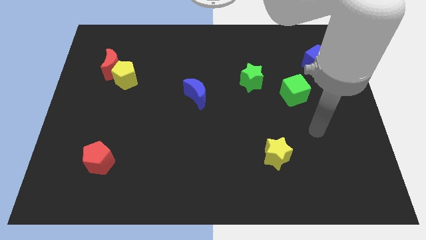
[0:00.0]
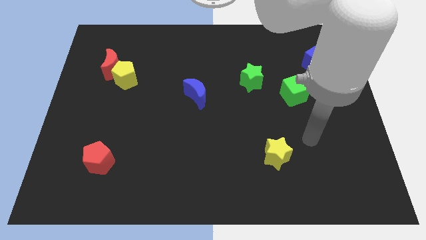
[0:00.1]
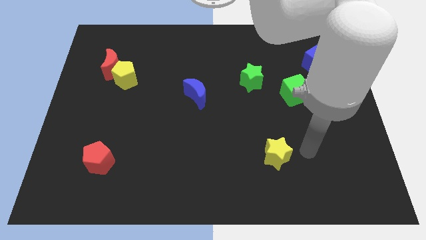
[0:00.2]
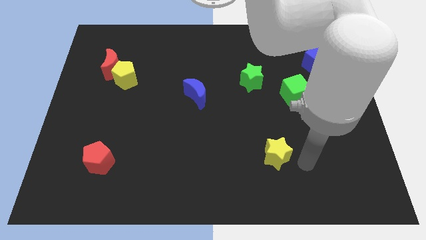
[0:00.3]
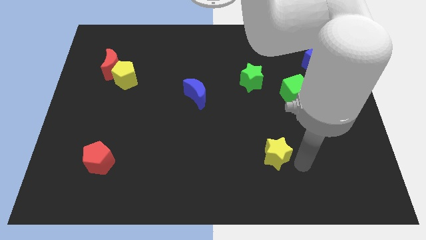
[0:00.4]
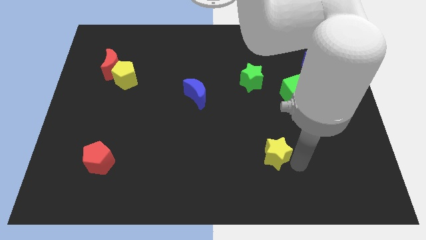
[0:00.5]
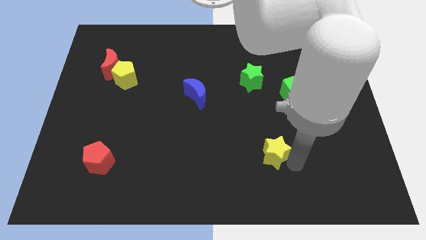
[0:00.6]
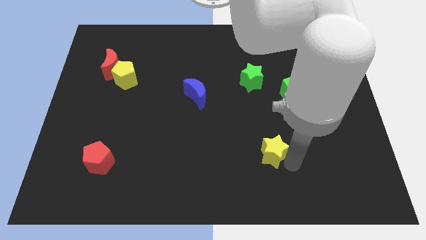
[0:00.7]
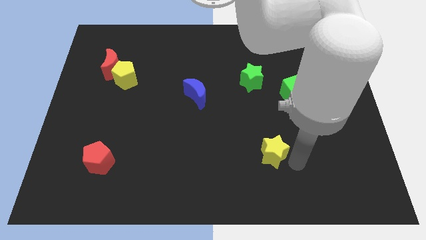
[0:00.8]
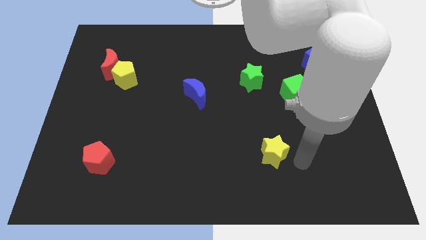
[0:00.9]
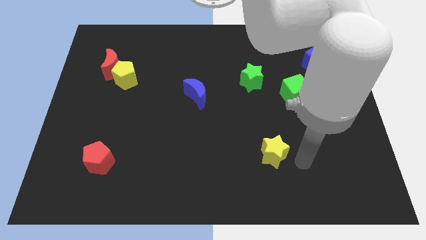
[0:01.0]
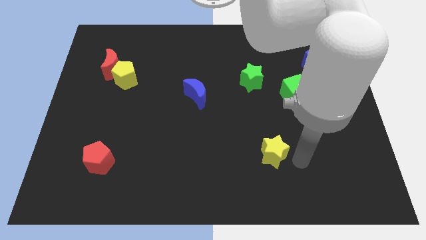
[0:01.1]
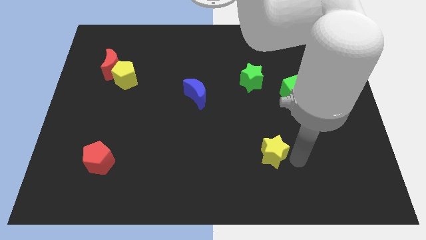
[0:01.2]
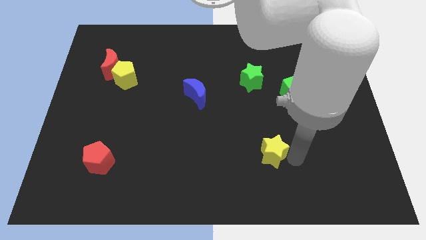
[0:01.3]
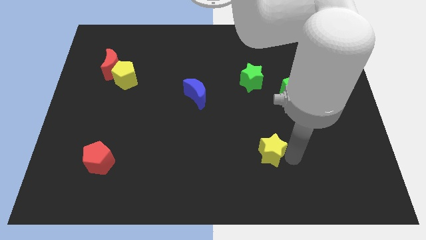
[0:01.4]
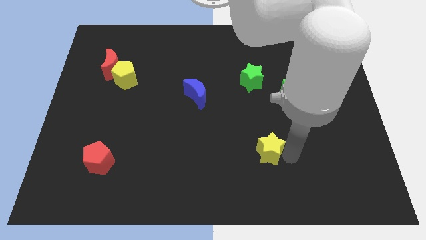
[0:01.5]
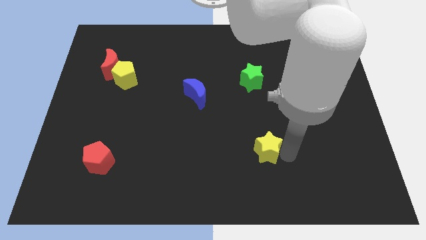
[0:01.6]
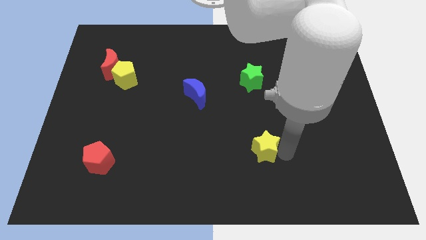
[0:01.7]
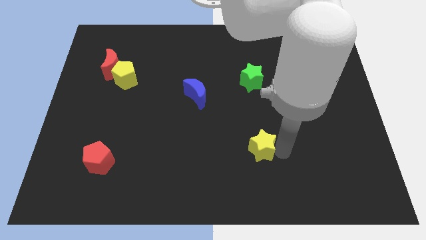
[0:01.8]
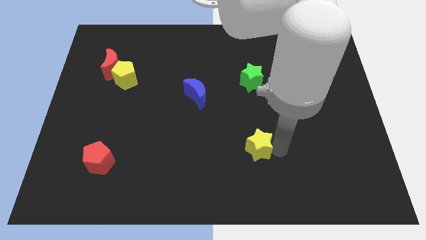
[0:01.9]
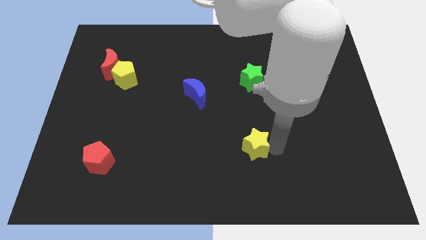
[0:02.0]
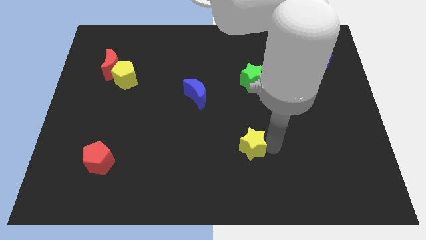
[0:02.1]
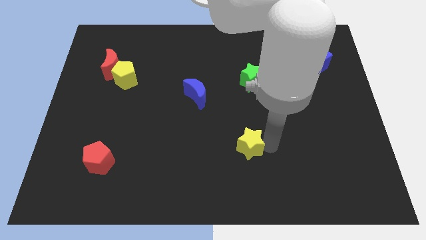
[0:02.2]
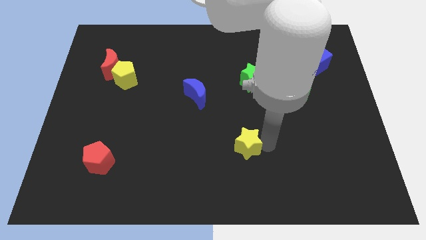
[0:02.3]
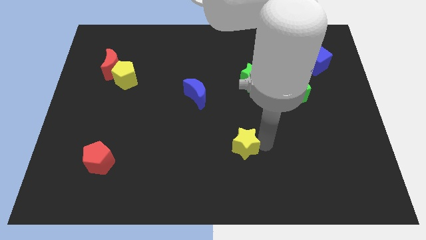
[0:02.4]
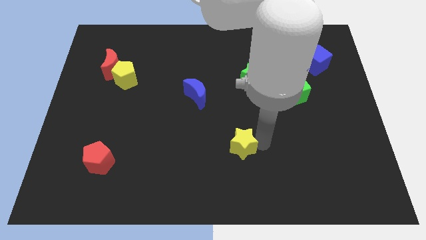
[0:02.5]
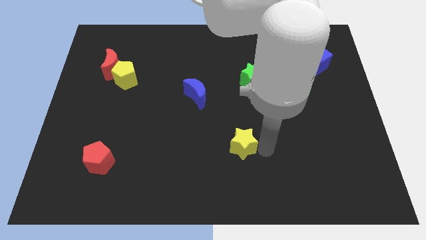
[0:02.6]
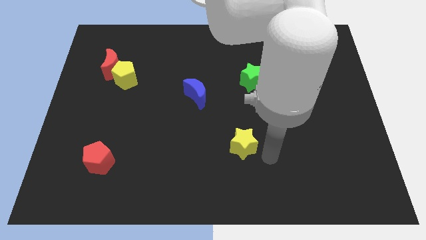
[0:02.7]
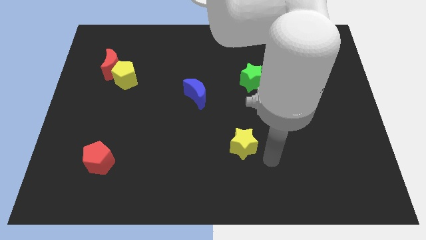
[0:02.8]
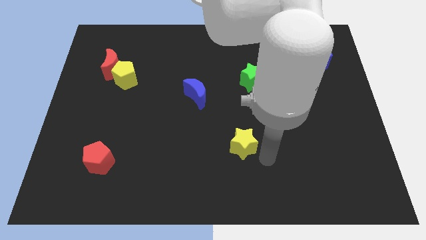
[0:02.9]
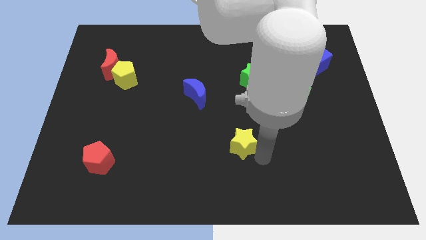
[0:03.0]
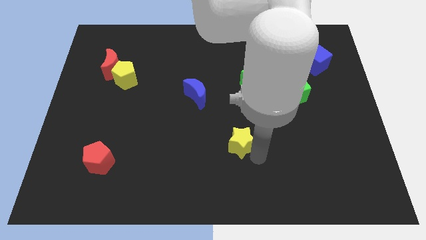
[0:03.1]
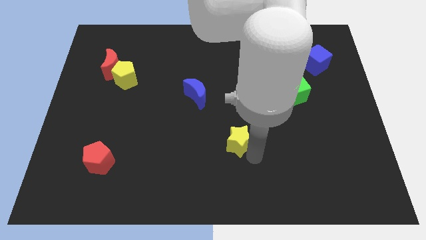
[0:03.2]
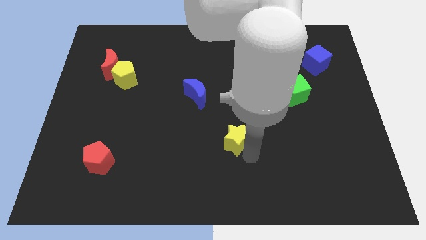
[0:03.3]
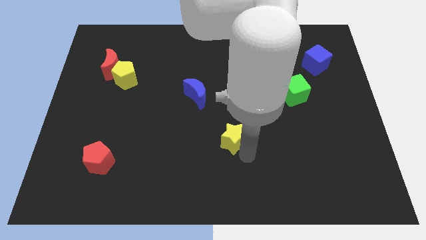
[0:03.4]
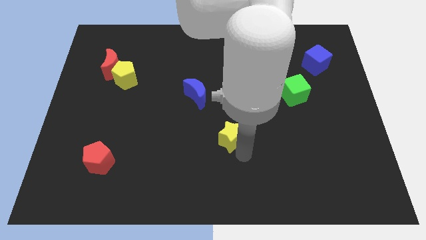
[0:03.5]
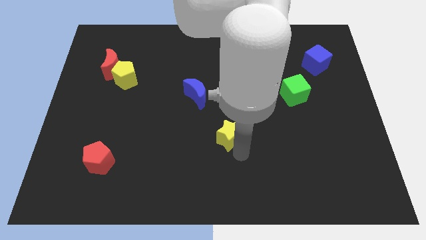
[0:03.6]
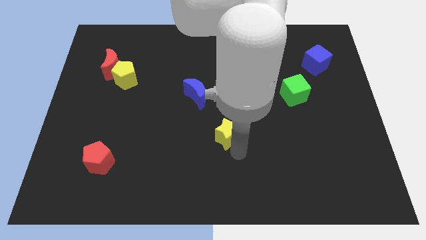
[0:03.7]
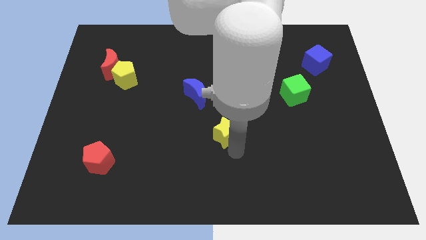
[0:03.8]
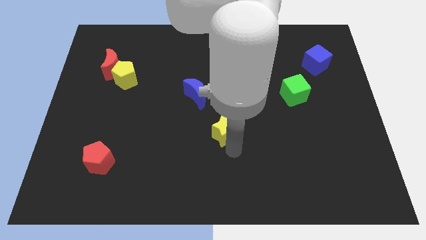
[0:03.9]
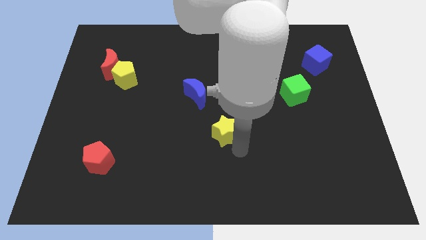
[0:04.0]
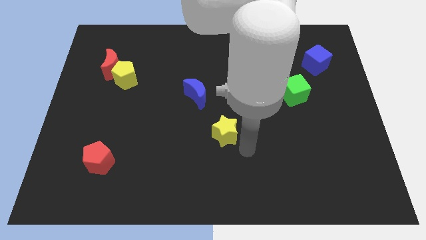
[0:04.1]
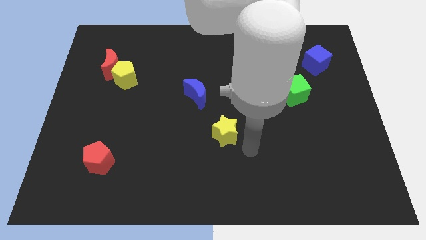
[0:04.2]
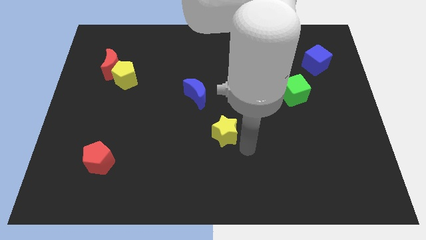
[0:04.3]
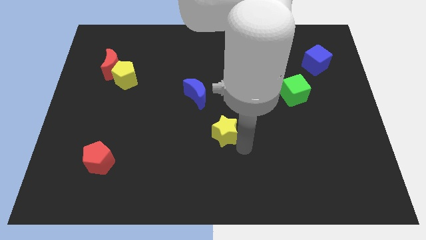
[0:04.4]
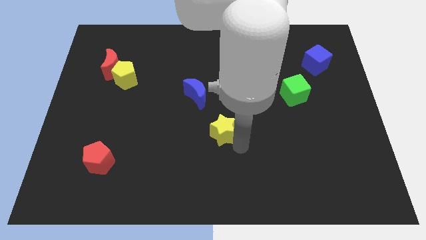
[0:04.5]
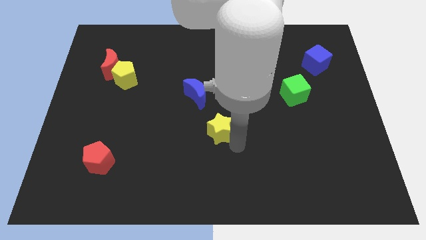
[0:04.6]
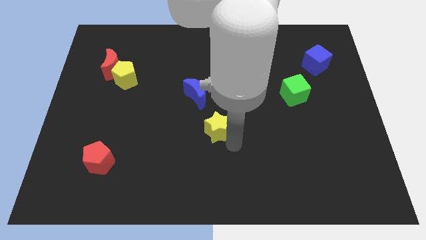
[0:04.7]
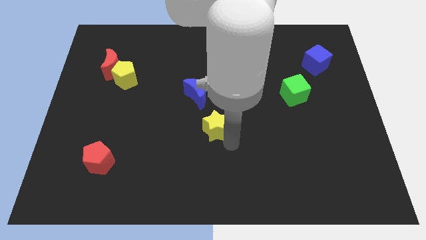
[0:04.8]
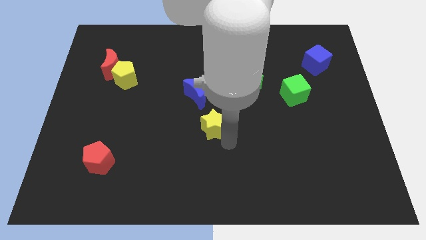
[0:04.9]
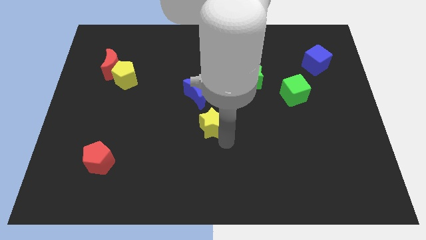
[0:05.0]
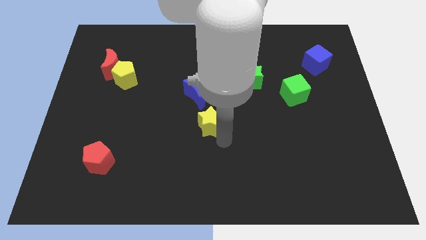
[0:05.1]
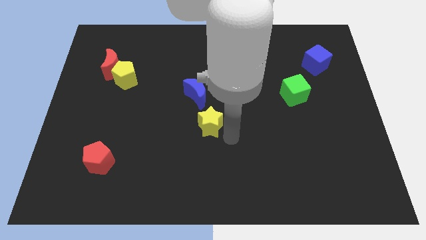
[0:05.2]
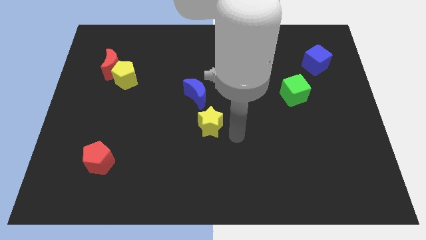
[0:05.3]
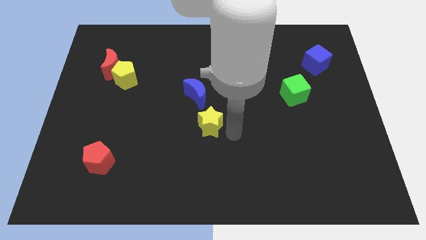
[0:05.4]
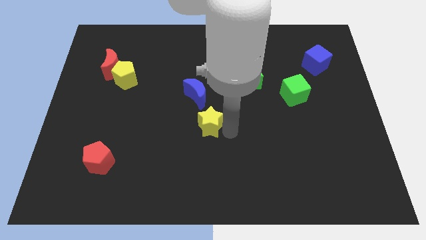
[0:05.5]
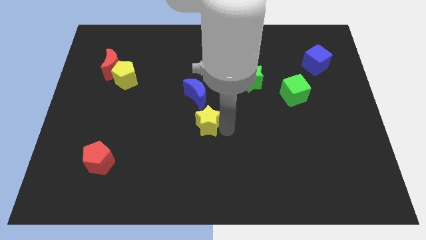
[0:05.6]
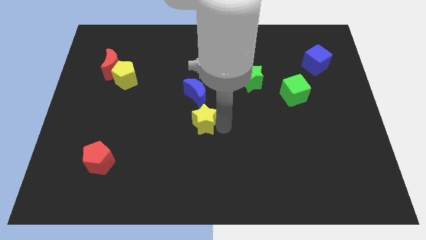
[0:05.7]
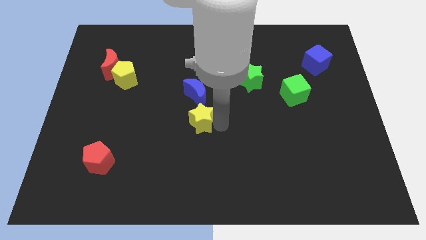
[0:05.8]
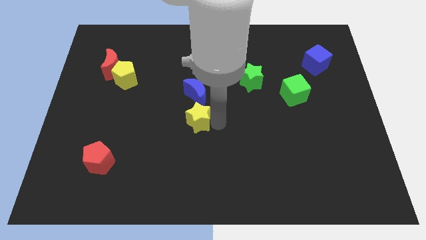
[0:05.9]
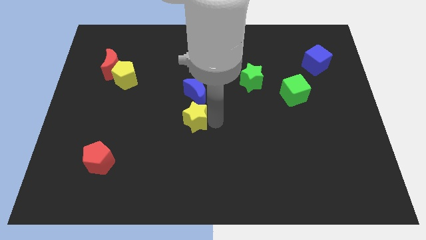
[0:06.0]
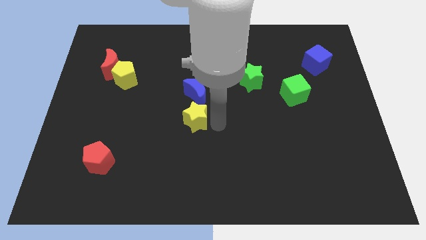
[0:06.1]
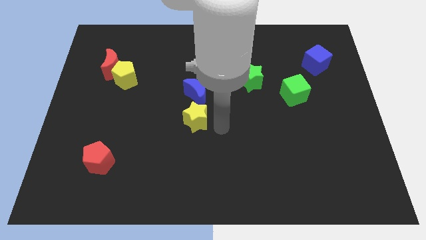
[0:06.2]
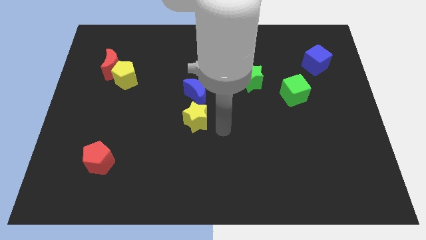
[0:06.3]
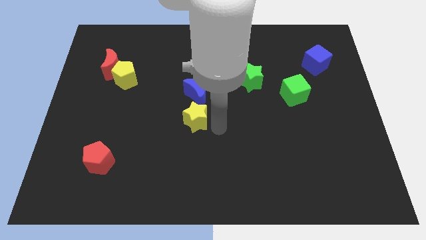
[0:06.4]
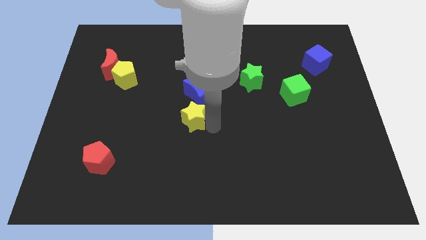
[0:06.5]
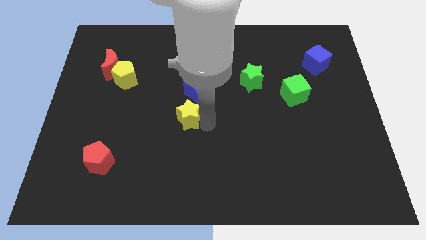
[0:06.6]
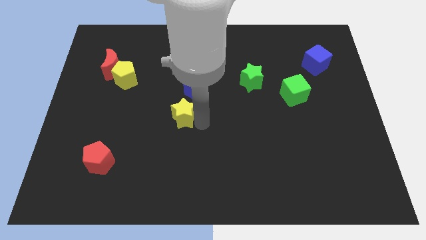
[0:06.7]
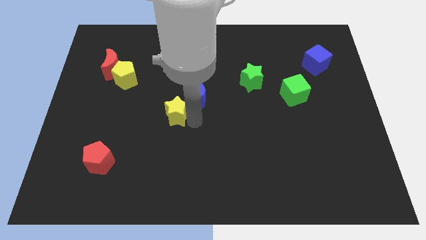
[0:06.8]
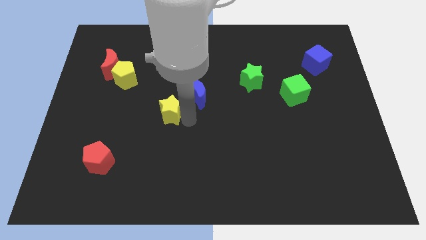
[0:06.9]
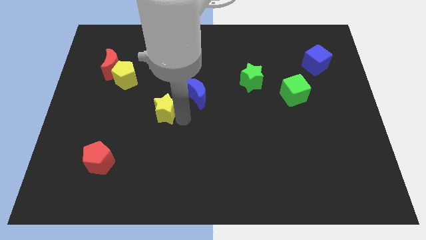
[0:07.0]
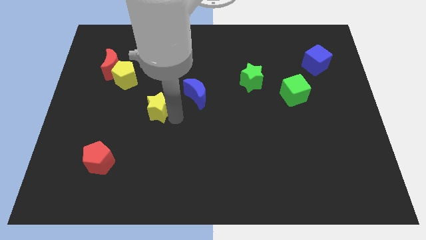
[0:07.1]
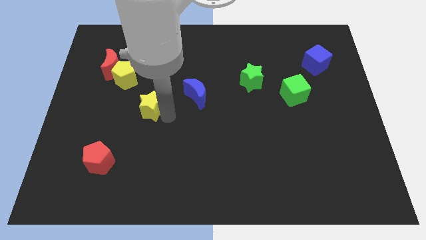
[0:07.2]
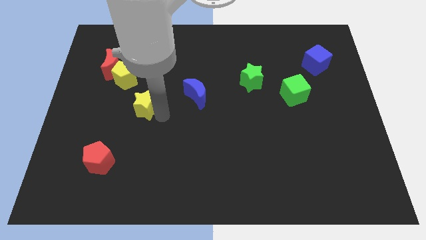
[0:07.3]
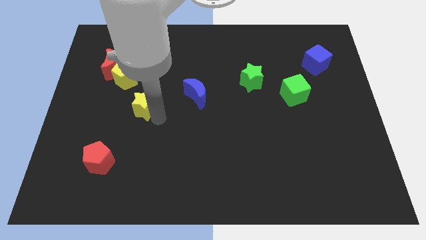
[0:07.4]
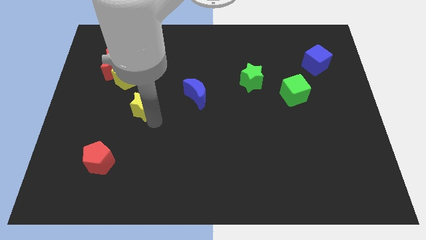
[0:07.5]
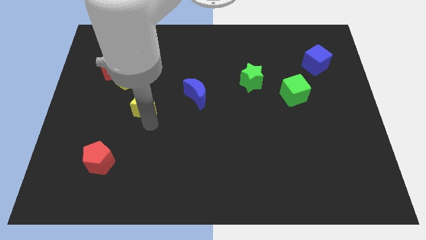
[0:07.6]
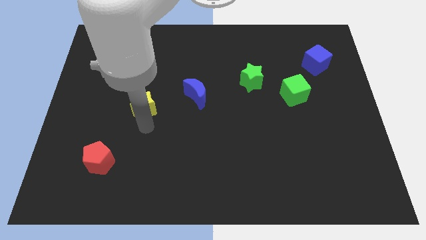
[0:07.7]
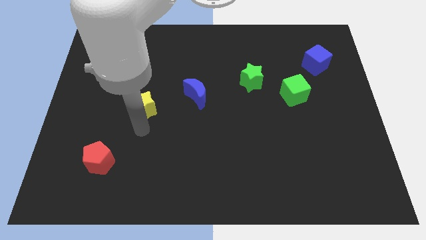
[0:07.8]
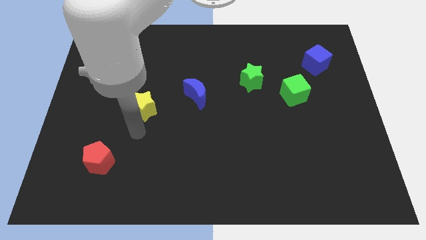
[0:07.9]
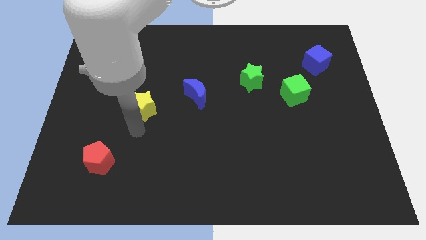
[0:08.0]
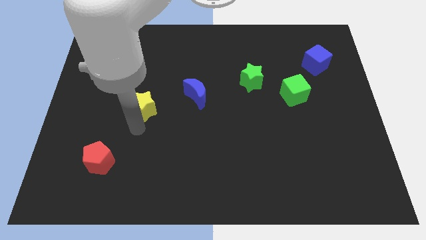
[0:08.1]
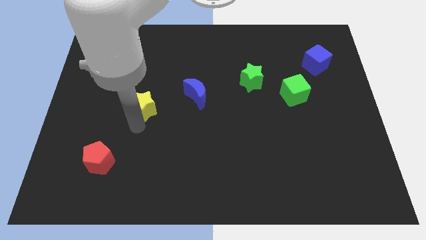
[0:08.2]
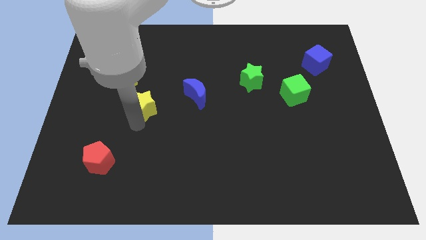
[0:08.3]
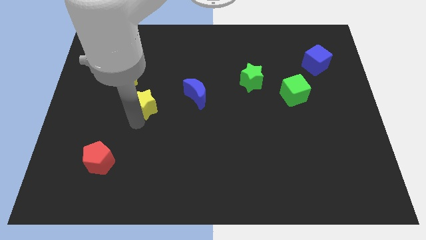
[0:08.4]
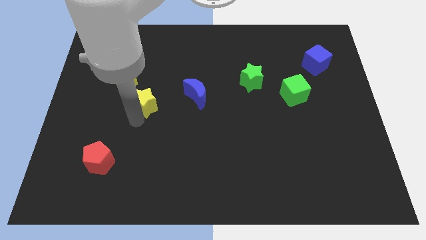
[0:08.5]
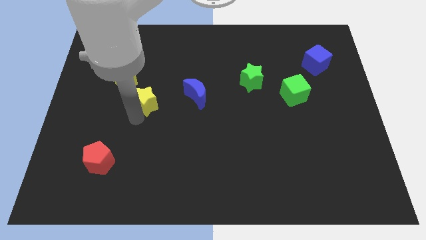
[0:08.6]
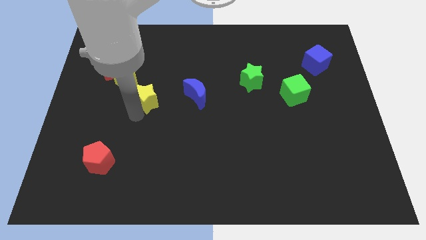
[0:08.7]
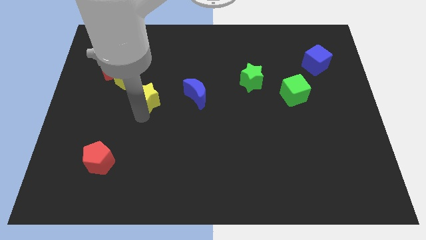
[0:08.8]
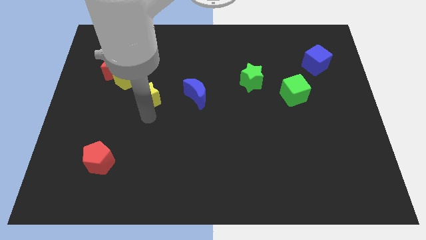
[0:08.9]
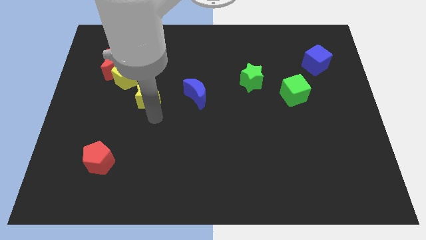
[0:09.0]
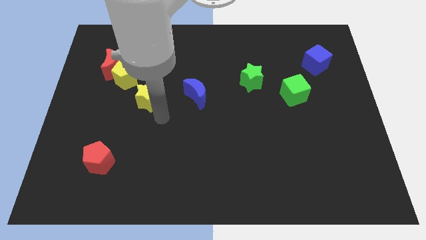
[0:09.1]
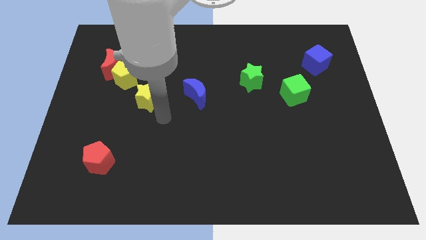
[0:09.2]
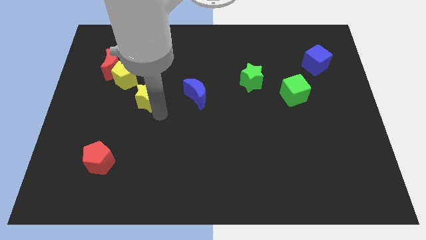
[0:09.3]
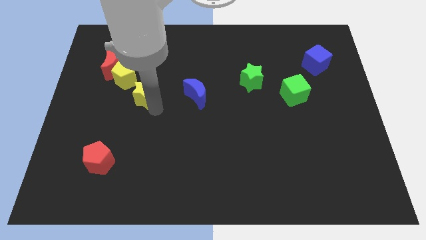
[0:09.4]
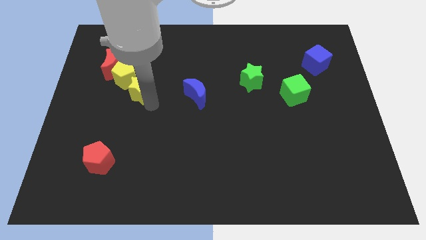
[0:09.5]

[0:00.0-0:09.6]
slide the yellow star to the bottom right of the red moon
